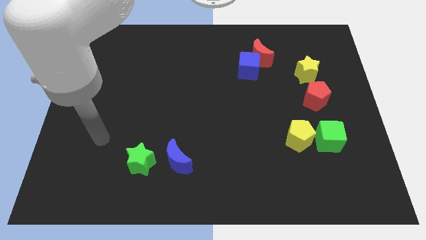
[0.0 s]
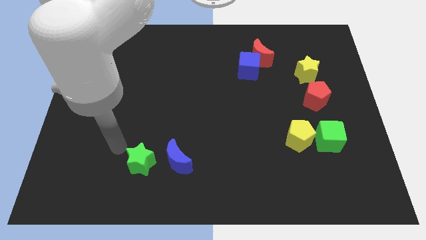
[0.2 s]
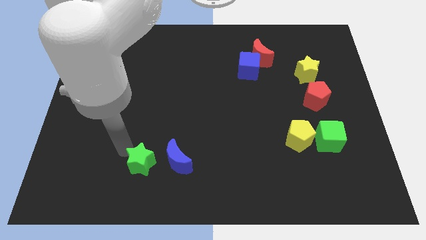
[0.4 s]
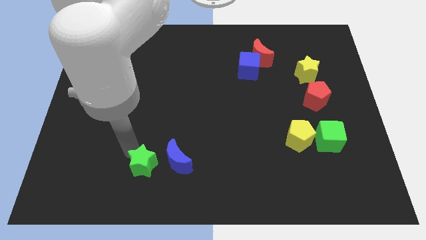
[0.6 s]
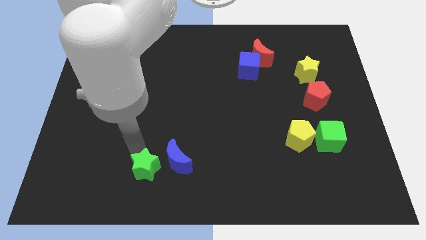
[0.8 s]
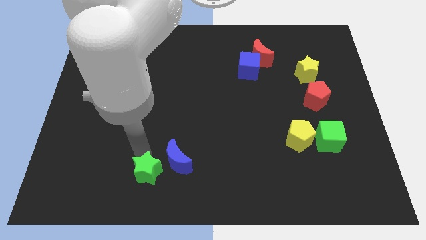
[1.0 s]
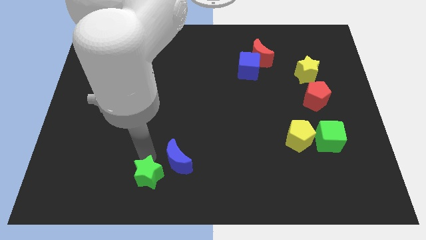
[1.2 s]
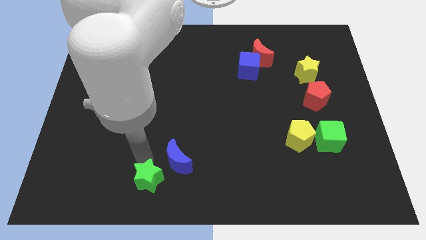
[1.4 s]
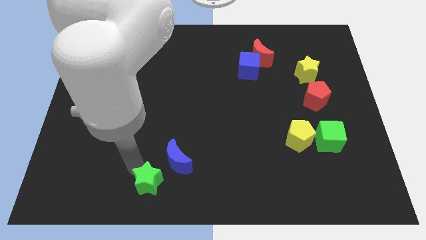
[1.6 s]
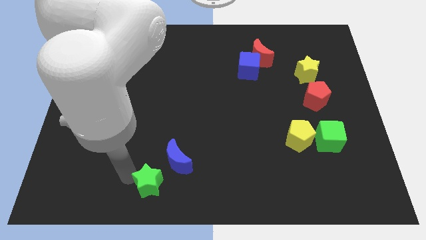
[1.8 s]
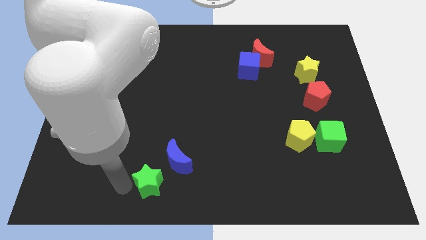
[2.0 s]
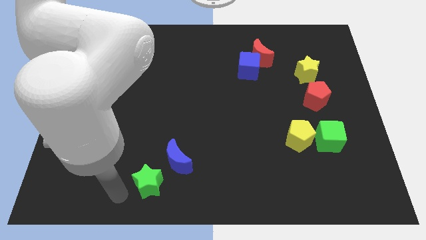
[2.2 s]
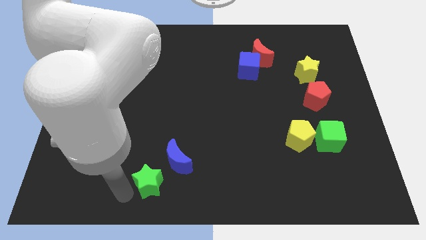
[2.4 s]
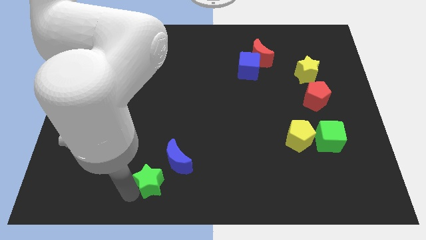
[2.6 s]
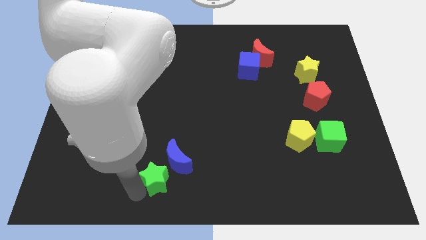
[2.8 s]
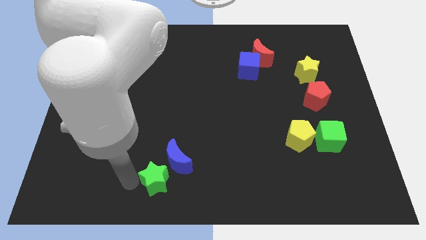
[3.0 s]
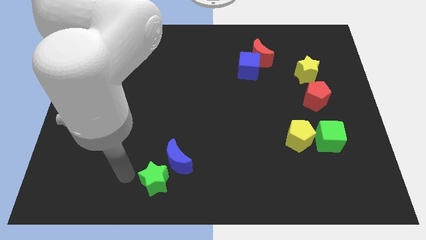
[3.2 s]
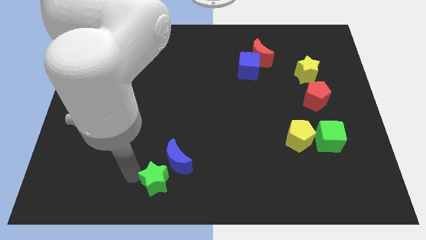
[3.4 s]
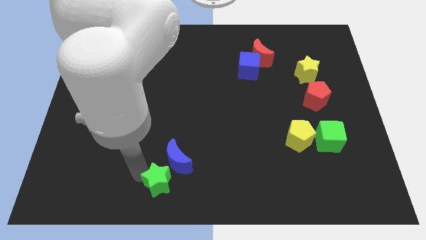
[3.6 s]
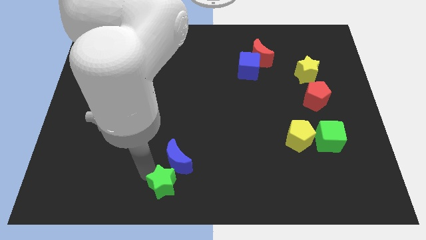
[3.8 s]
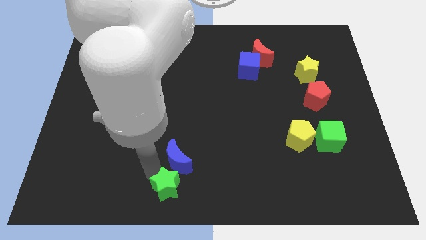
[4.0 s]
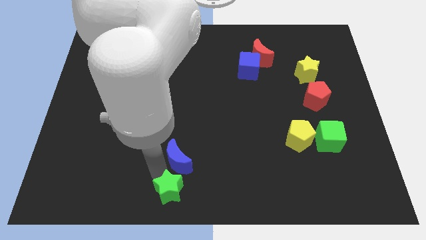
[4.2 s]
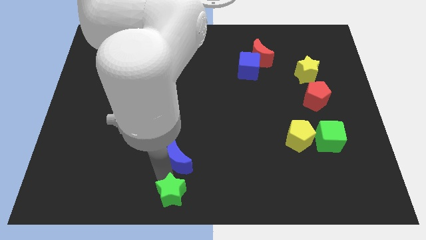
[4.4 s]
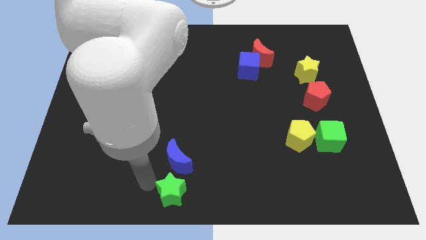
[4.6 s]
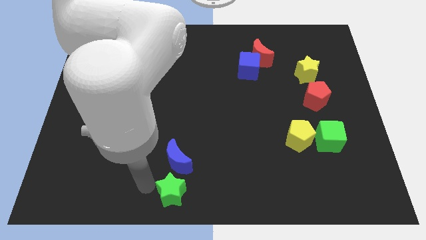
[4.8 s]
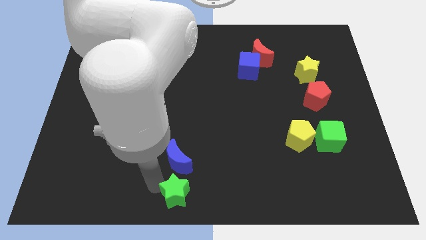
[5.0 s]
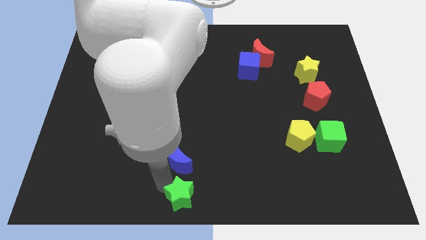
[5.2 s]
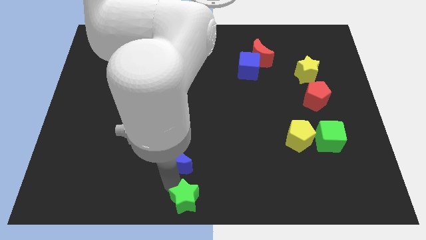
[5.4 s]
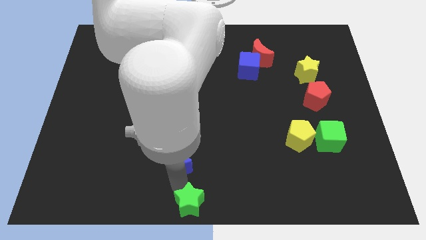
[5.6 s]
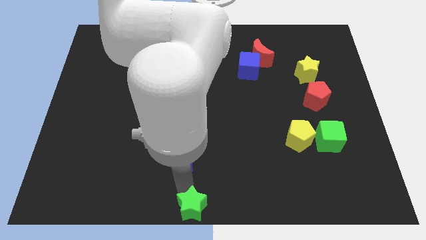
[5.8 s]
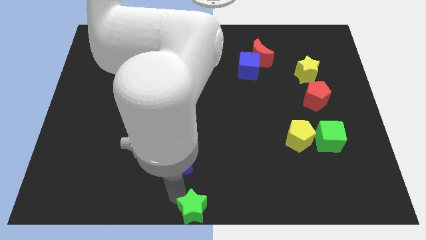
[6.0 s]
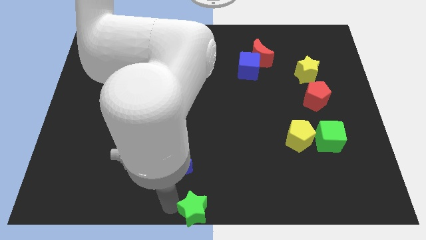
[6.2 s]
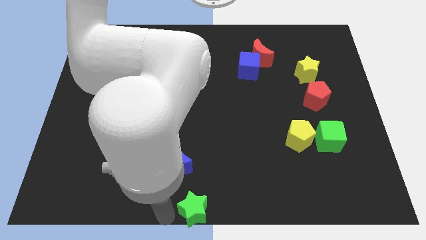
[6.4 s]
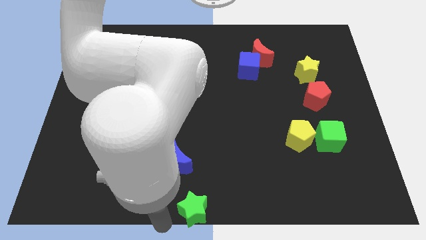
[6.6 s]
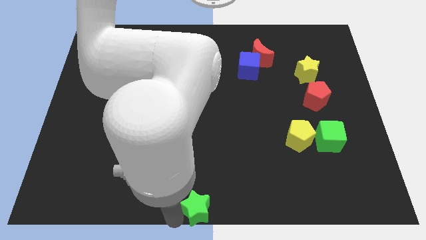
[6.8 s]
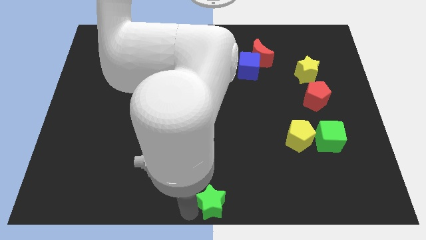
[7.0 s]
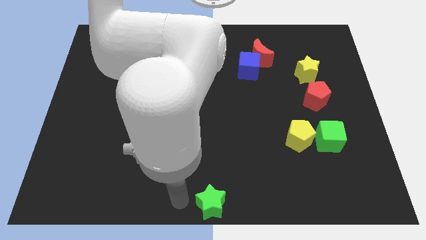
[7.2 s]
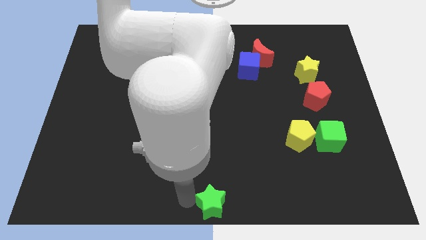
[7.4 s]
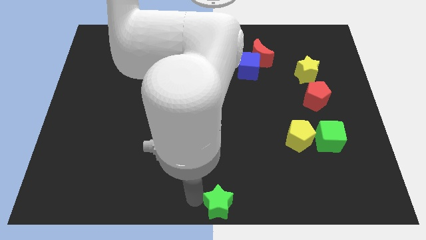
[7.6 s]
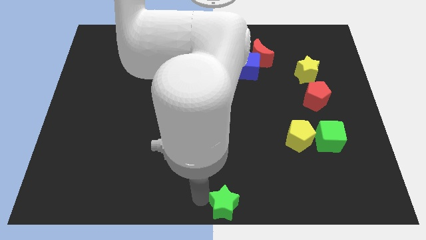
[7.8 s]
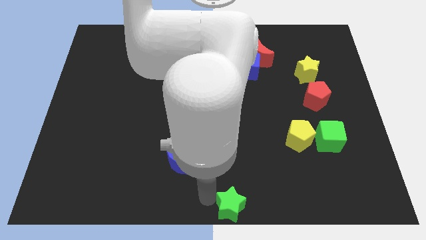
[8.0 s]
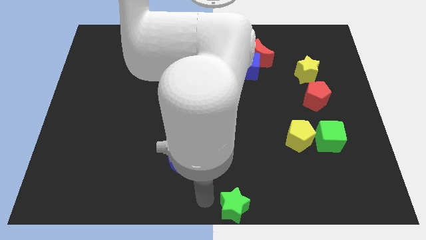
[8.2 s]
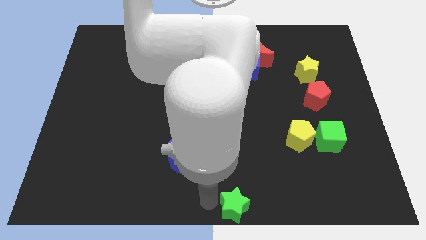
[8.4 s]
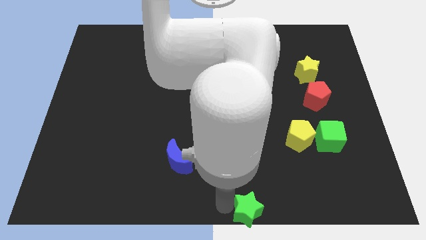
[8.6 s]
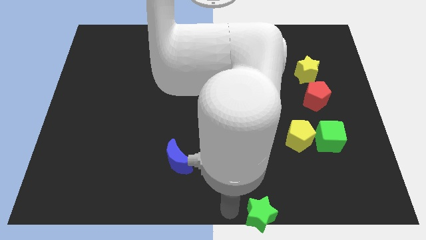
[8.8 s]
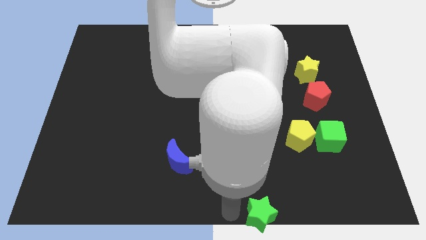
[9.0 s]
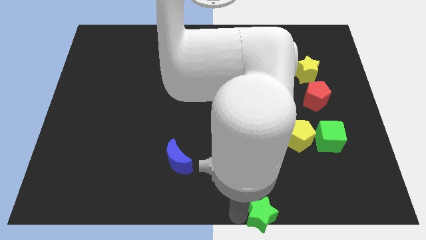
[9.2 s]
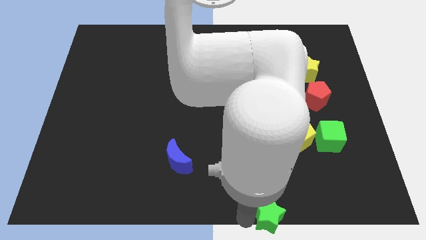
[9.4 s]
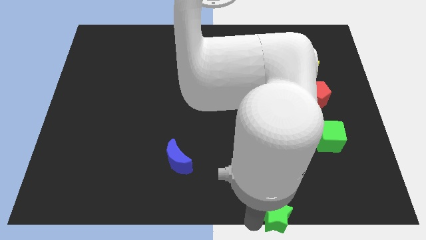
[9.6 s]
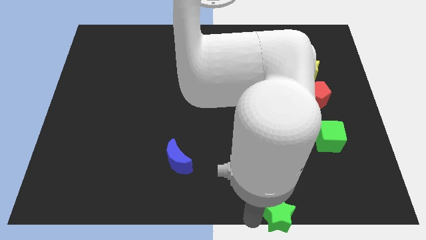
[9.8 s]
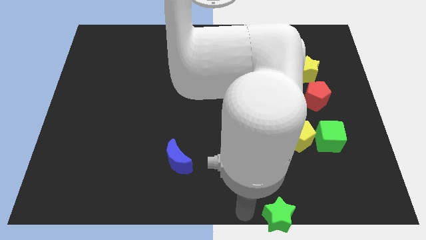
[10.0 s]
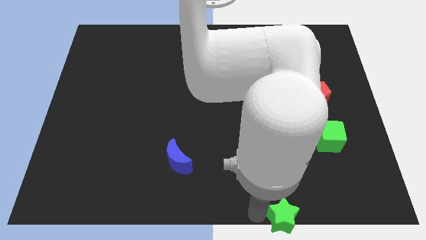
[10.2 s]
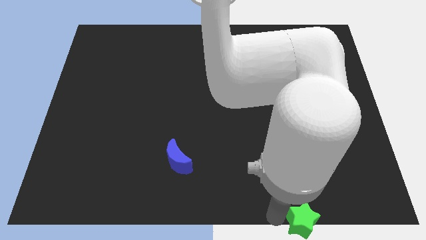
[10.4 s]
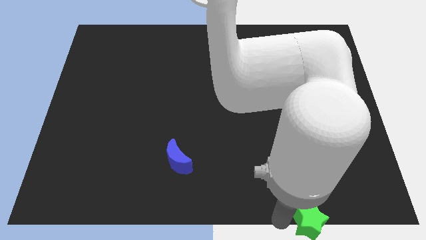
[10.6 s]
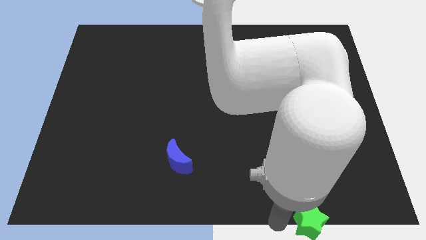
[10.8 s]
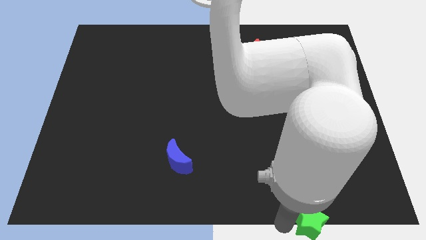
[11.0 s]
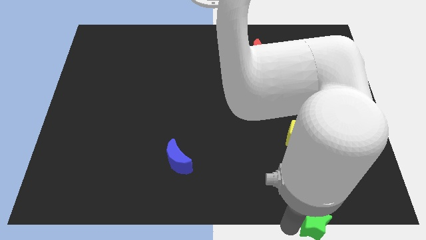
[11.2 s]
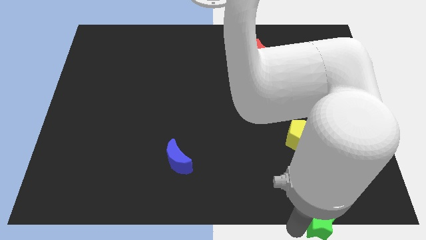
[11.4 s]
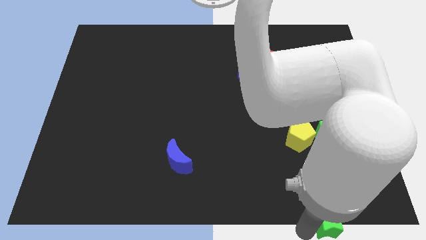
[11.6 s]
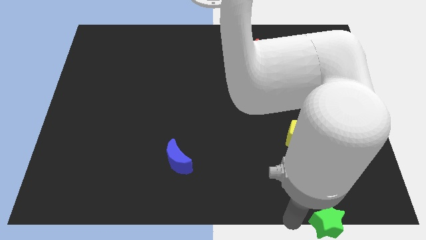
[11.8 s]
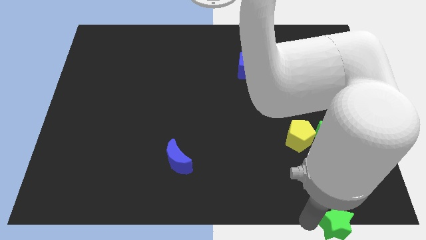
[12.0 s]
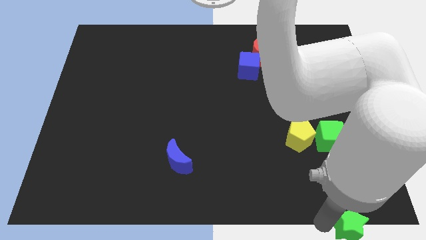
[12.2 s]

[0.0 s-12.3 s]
move the green star to the bottom right of the board

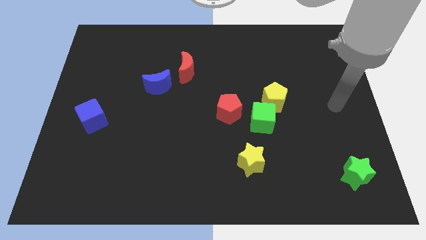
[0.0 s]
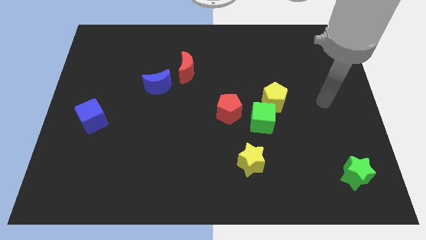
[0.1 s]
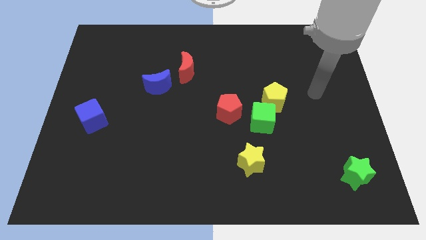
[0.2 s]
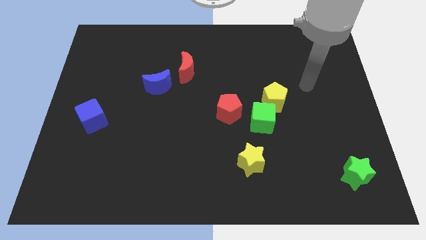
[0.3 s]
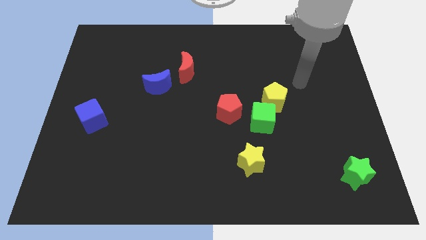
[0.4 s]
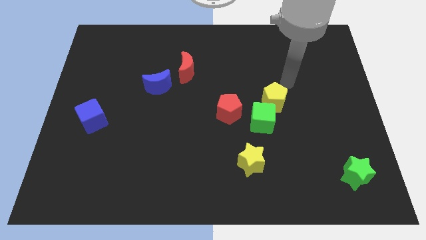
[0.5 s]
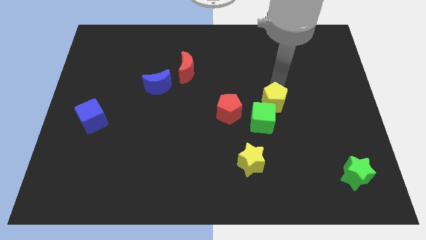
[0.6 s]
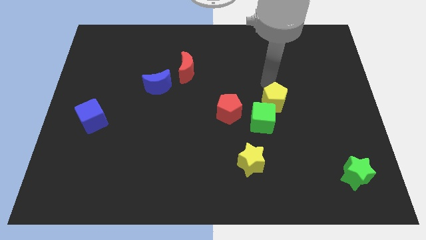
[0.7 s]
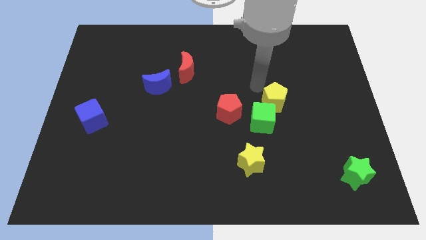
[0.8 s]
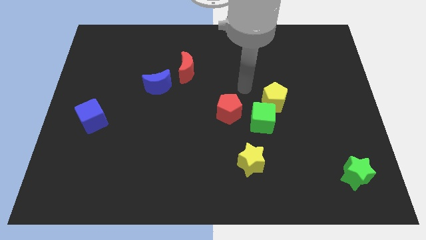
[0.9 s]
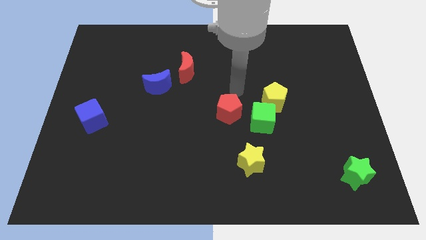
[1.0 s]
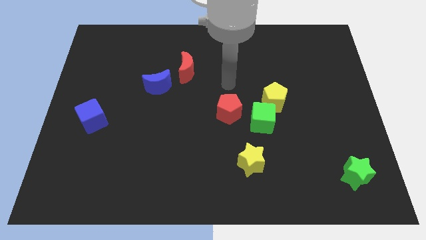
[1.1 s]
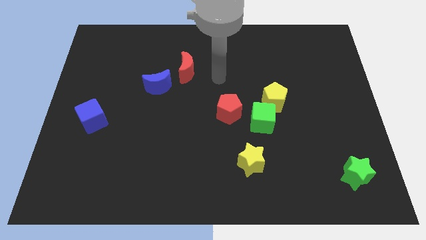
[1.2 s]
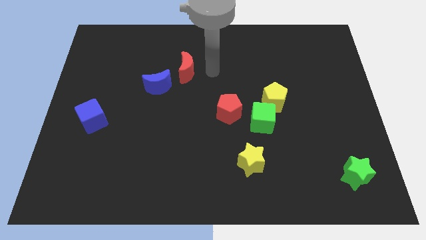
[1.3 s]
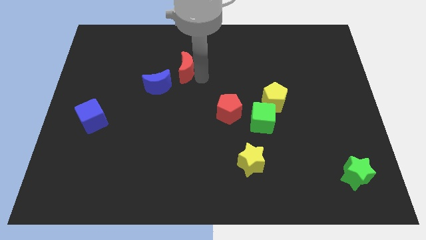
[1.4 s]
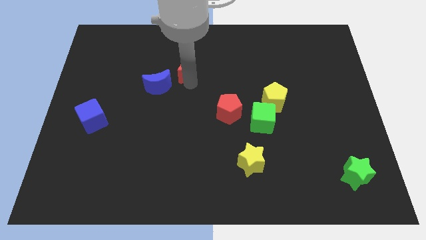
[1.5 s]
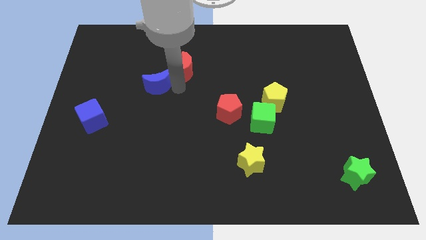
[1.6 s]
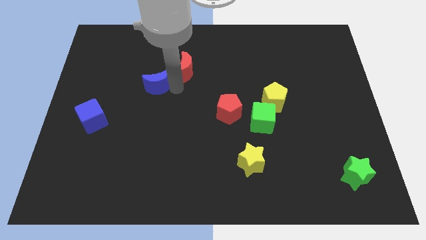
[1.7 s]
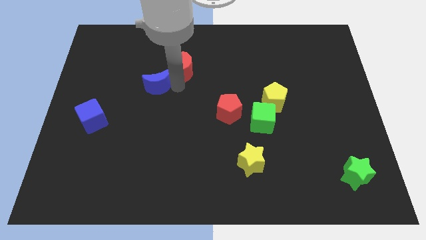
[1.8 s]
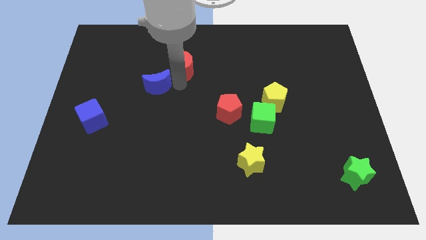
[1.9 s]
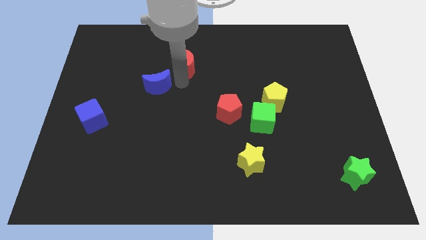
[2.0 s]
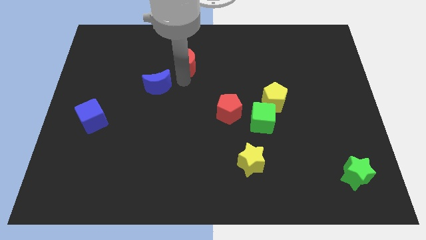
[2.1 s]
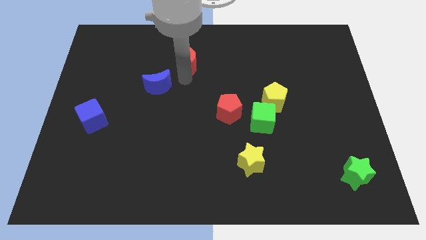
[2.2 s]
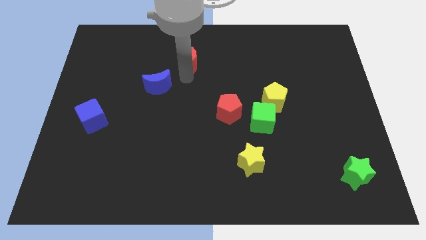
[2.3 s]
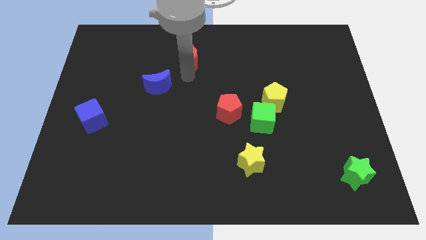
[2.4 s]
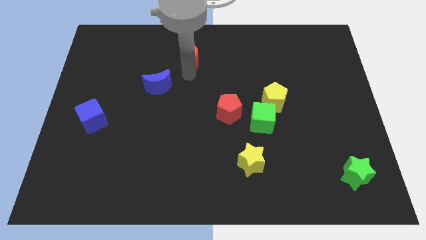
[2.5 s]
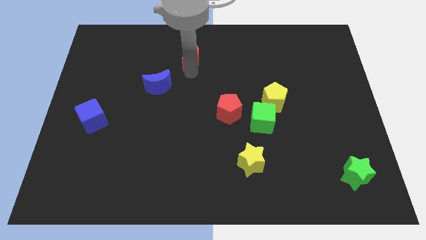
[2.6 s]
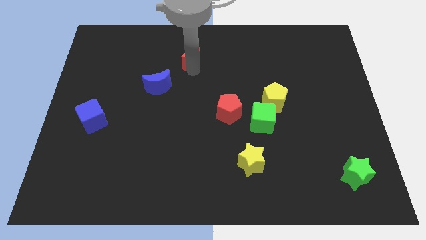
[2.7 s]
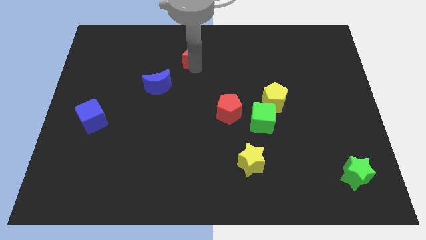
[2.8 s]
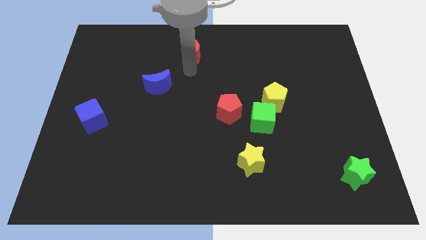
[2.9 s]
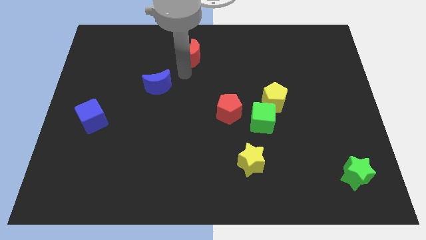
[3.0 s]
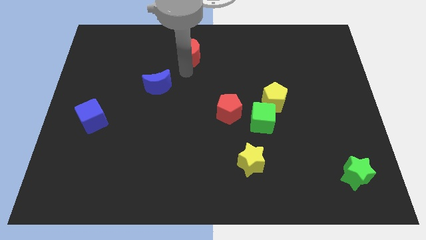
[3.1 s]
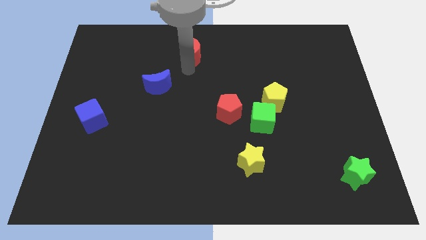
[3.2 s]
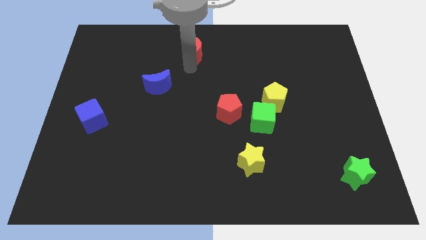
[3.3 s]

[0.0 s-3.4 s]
put the red moon to the towards your base
